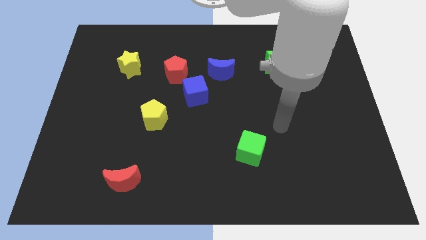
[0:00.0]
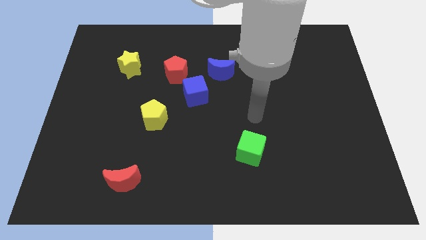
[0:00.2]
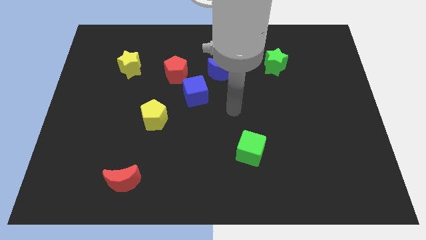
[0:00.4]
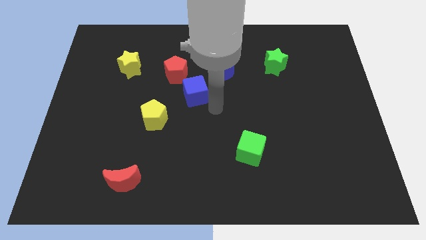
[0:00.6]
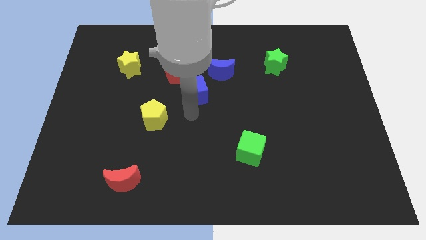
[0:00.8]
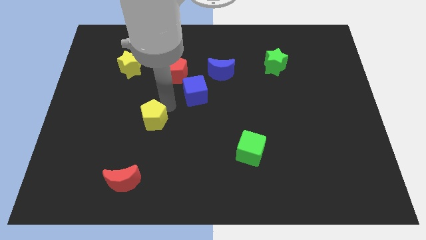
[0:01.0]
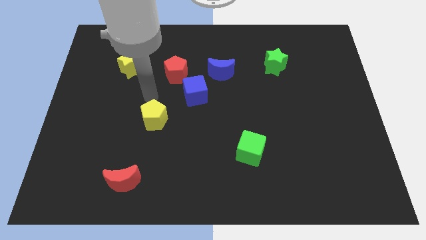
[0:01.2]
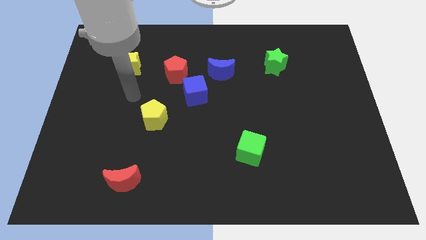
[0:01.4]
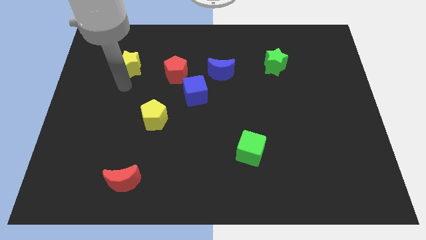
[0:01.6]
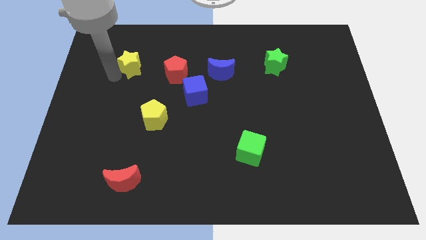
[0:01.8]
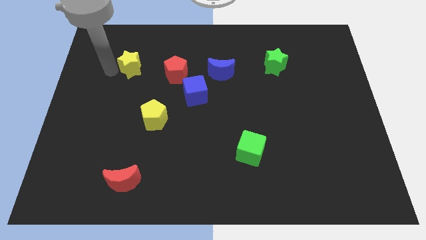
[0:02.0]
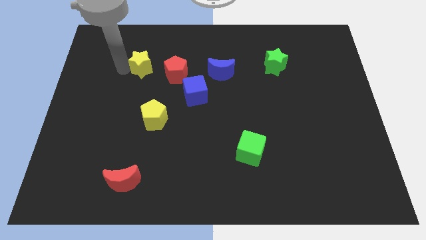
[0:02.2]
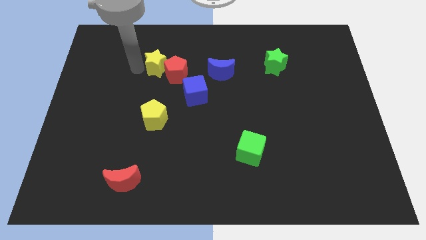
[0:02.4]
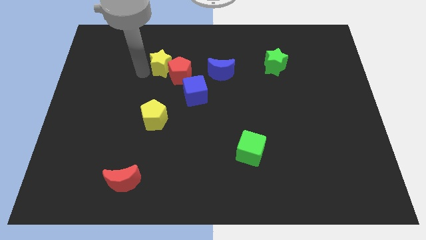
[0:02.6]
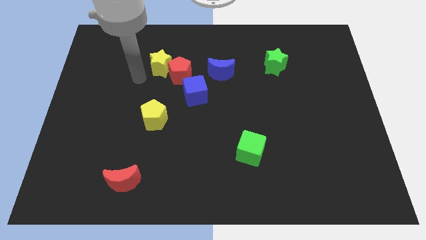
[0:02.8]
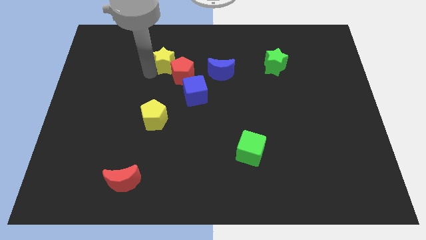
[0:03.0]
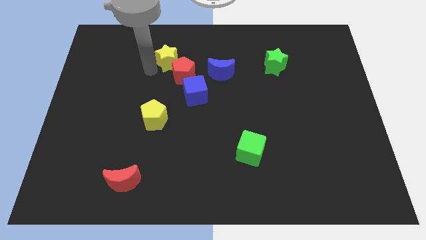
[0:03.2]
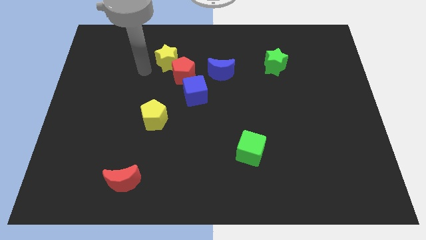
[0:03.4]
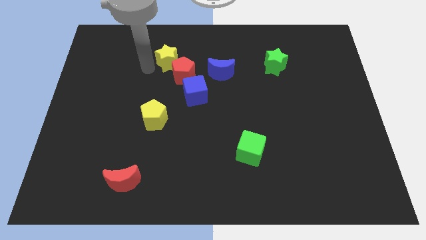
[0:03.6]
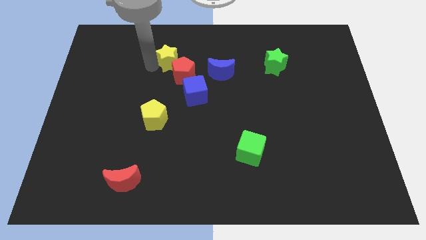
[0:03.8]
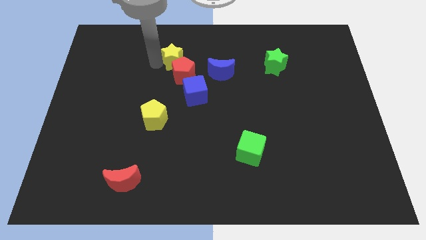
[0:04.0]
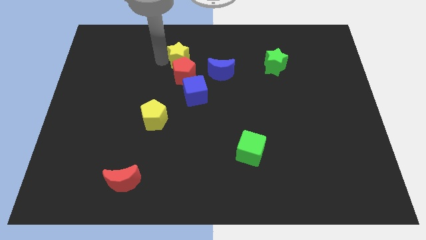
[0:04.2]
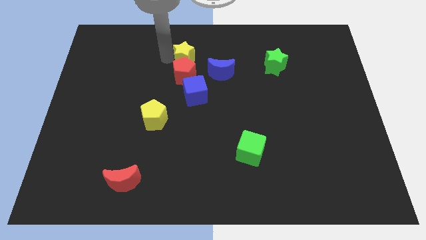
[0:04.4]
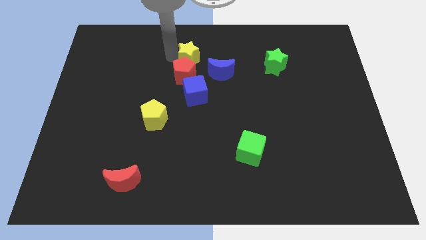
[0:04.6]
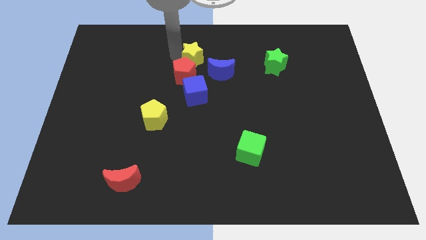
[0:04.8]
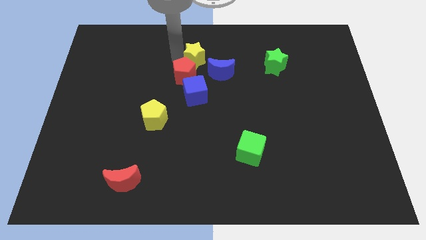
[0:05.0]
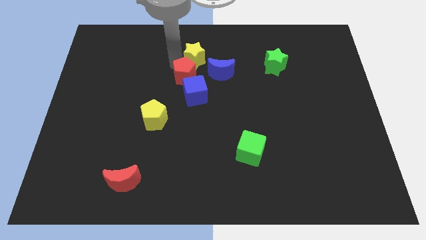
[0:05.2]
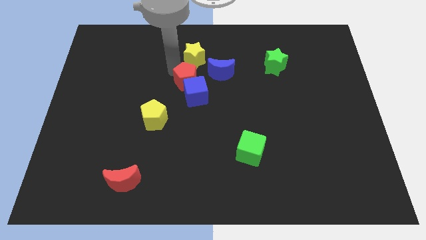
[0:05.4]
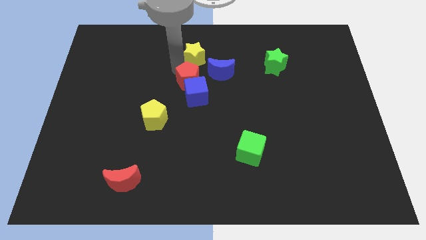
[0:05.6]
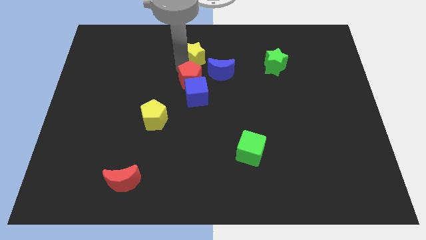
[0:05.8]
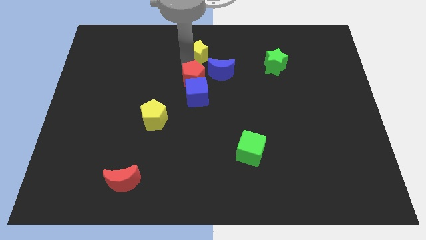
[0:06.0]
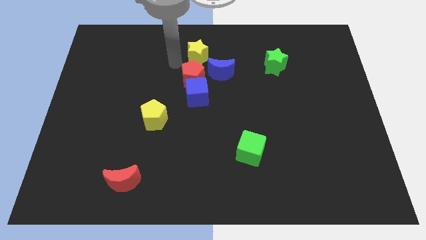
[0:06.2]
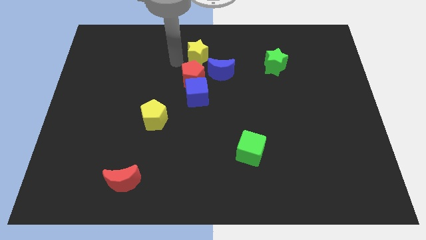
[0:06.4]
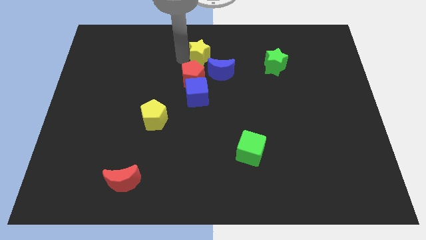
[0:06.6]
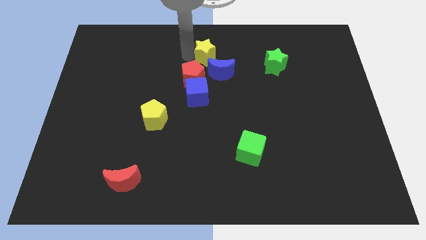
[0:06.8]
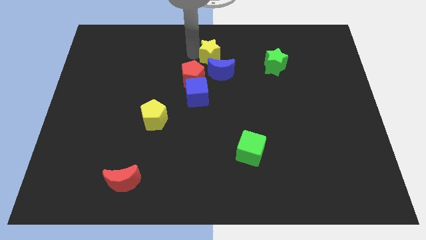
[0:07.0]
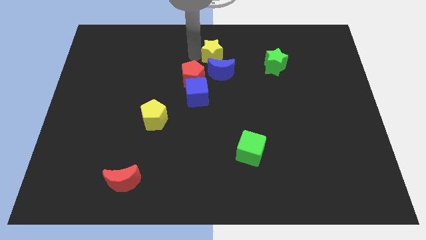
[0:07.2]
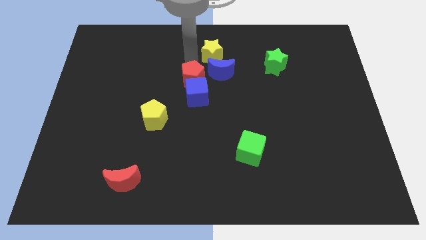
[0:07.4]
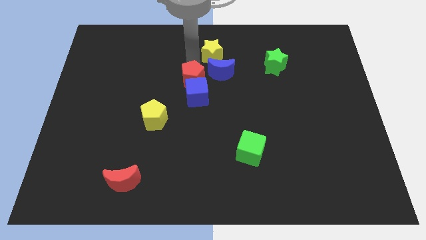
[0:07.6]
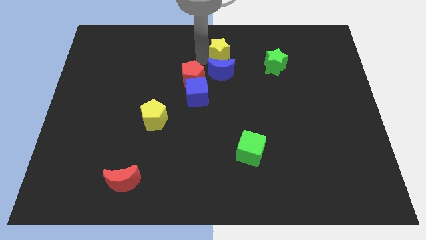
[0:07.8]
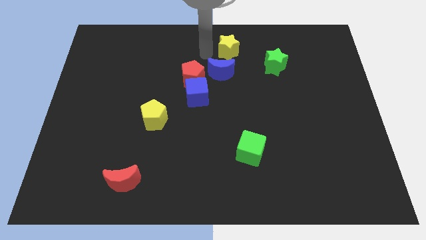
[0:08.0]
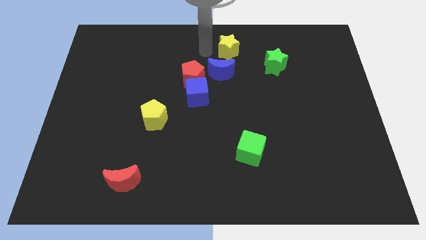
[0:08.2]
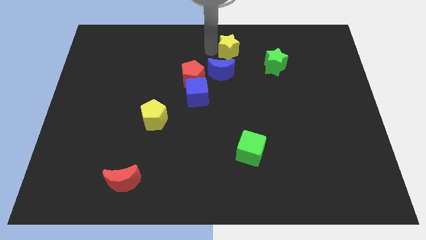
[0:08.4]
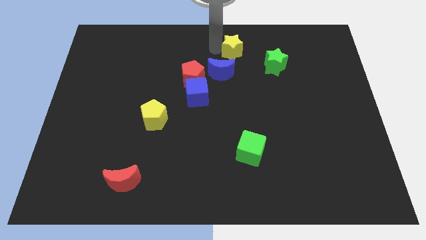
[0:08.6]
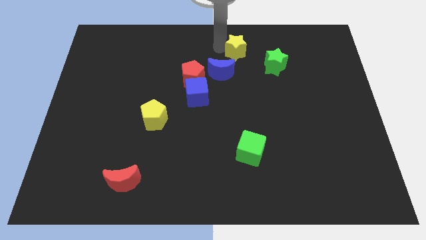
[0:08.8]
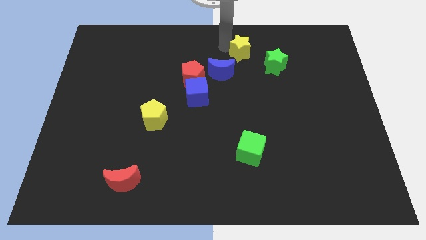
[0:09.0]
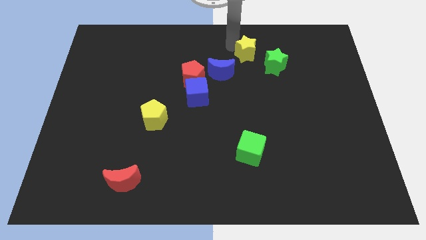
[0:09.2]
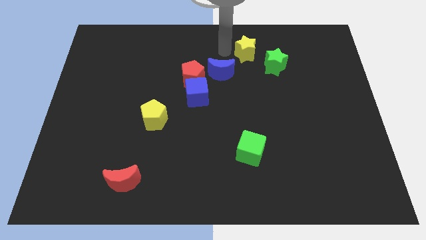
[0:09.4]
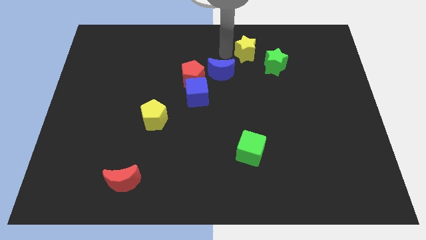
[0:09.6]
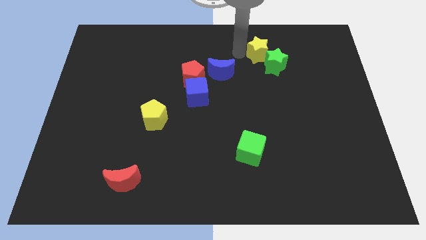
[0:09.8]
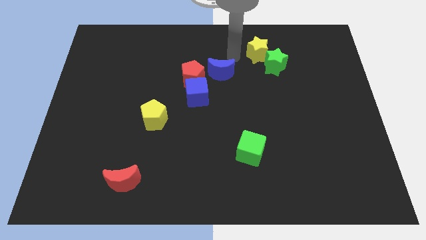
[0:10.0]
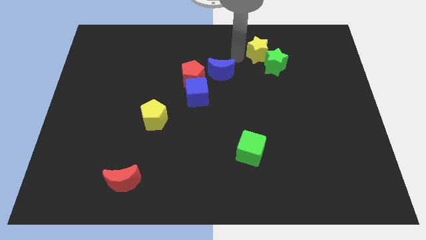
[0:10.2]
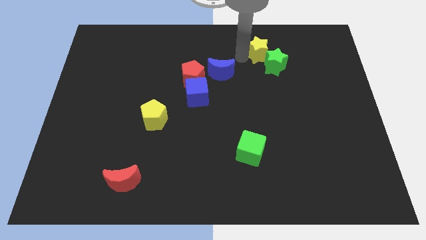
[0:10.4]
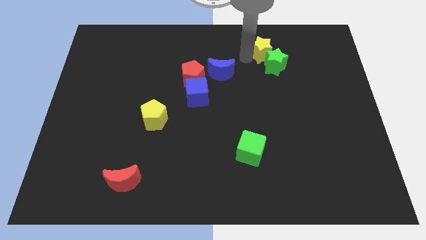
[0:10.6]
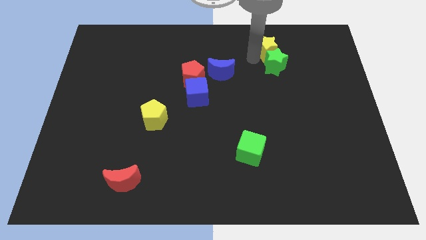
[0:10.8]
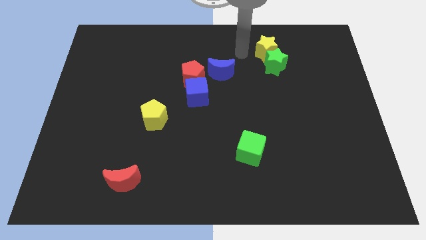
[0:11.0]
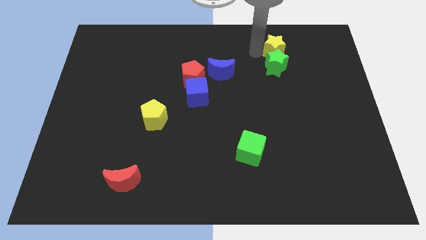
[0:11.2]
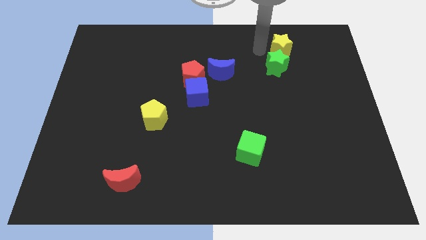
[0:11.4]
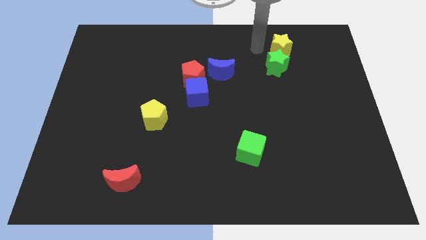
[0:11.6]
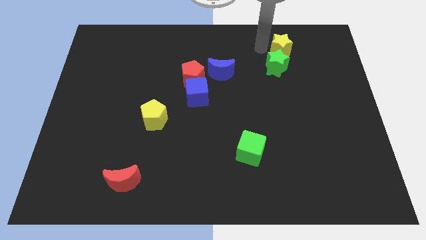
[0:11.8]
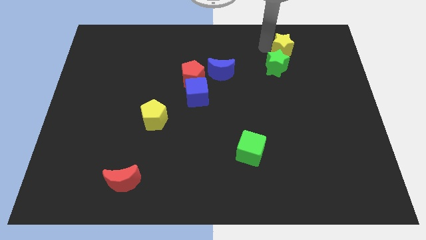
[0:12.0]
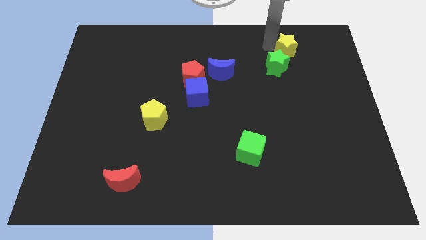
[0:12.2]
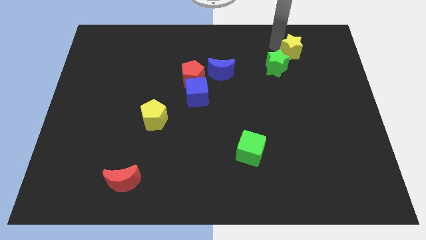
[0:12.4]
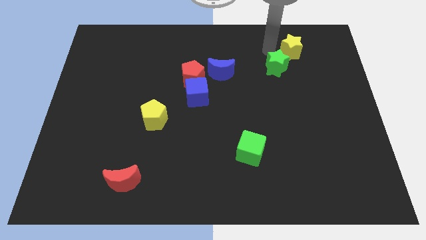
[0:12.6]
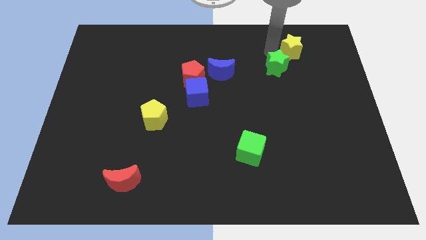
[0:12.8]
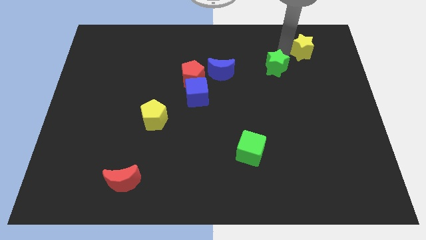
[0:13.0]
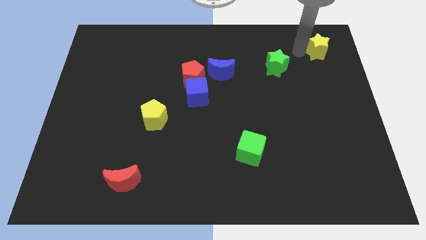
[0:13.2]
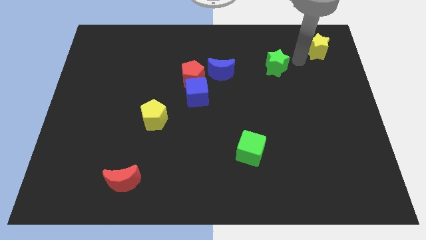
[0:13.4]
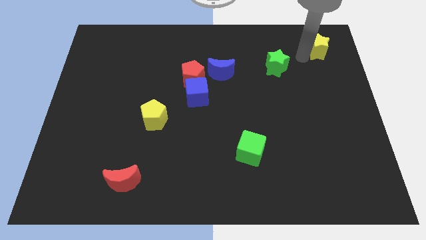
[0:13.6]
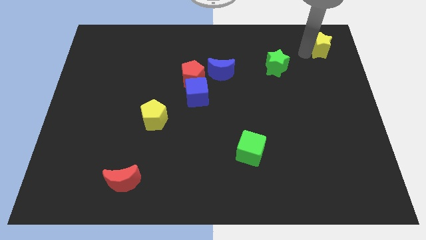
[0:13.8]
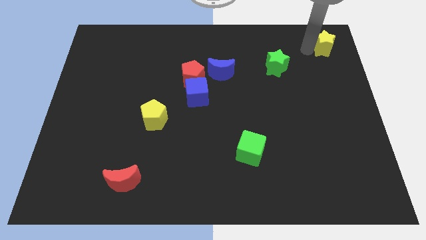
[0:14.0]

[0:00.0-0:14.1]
move the yellow star to the upper right corner
